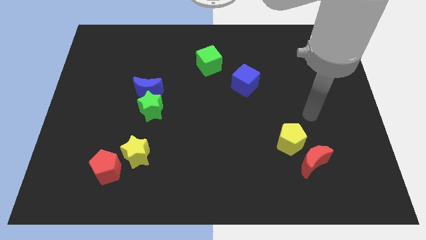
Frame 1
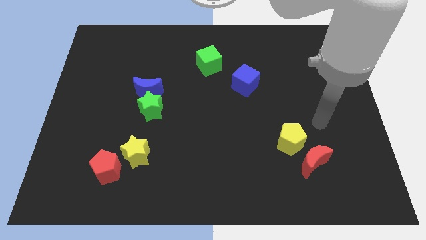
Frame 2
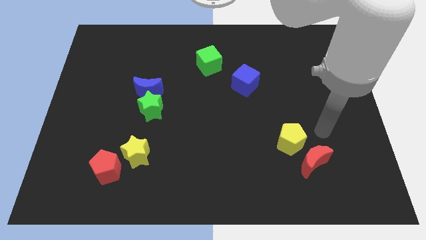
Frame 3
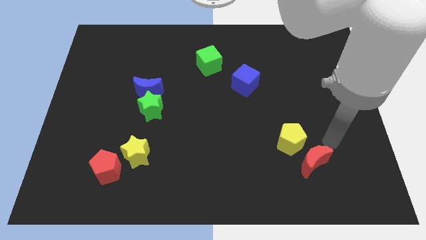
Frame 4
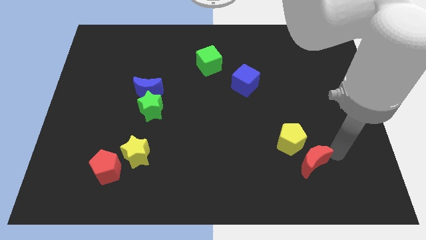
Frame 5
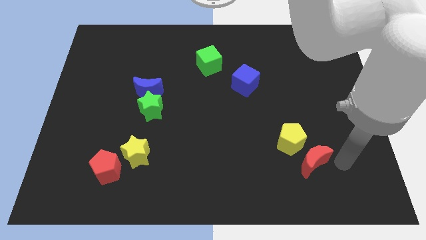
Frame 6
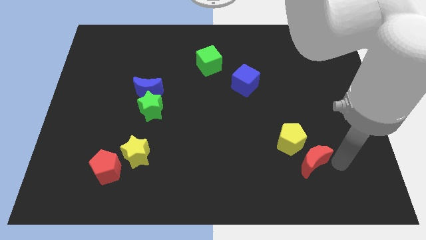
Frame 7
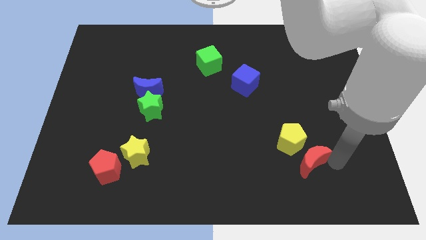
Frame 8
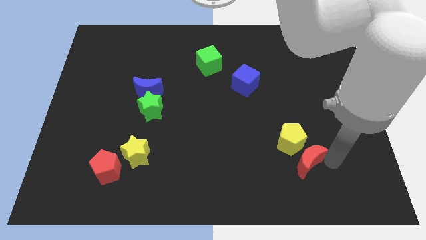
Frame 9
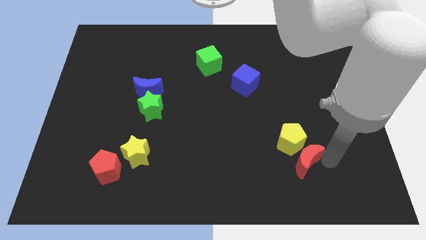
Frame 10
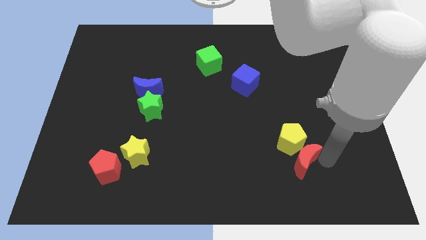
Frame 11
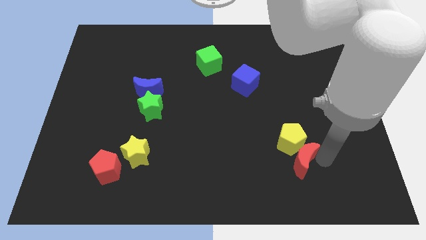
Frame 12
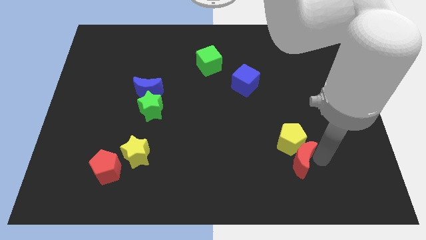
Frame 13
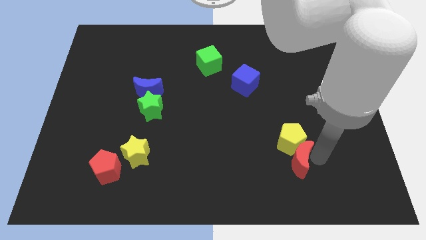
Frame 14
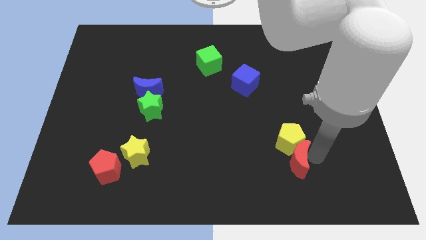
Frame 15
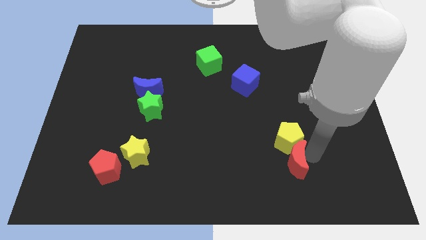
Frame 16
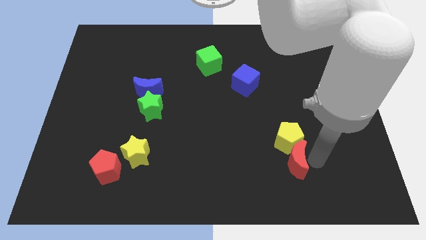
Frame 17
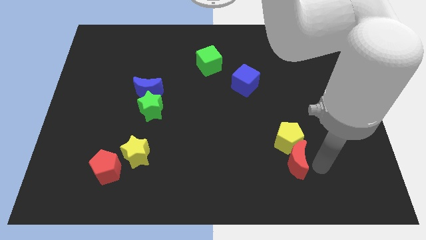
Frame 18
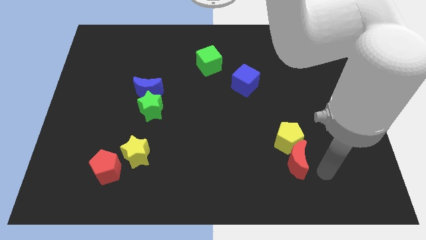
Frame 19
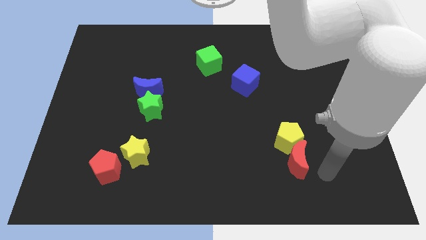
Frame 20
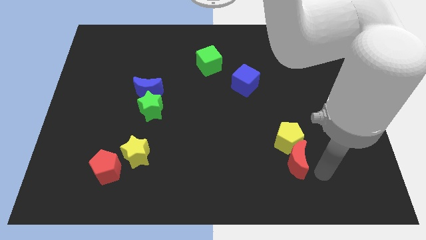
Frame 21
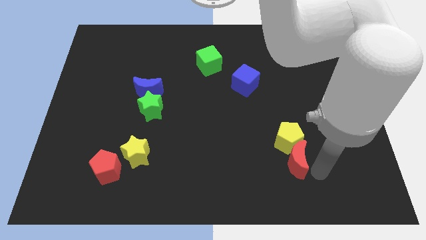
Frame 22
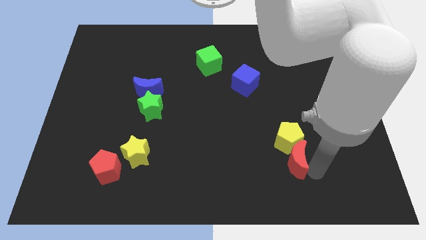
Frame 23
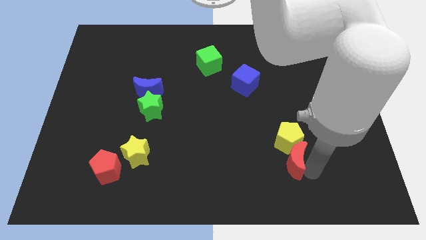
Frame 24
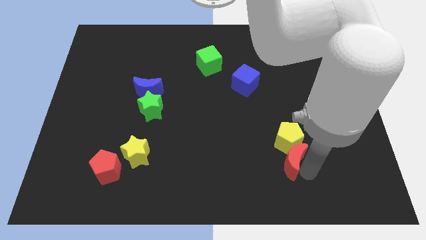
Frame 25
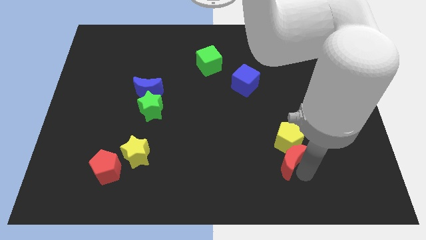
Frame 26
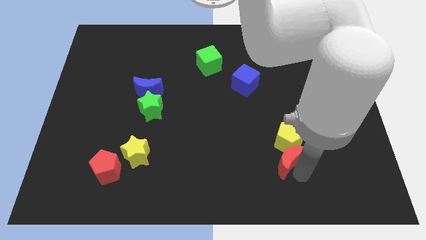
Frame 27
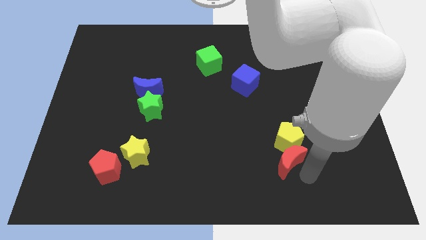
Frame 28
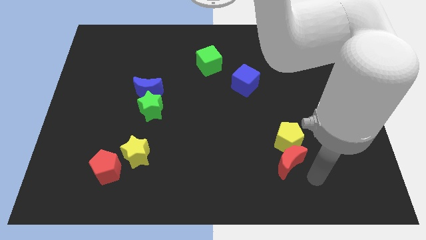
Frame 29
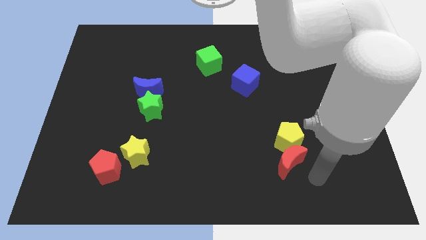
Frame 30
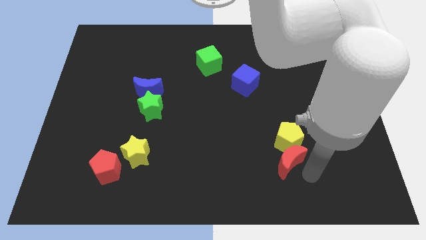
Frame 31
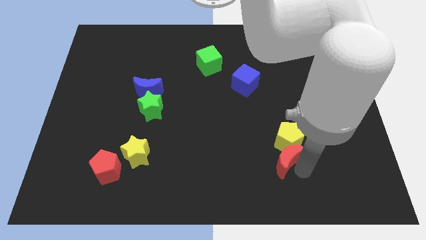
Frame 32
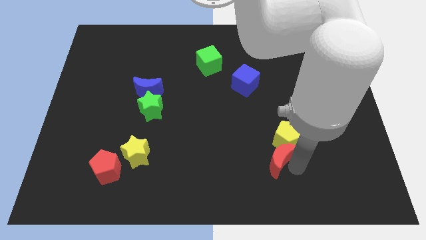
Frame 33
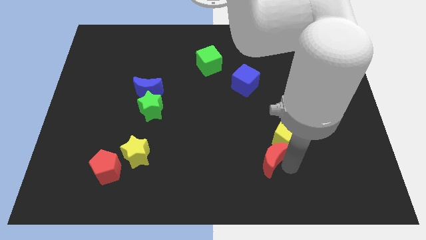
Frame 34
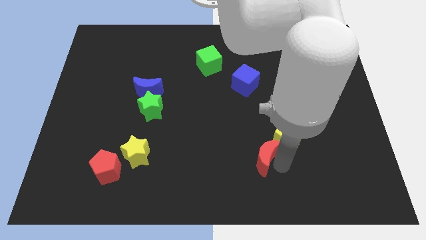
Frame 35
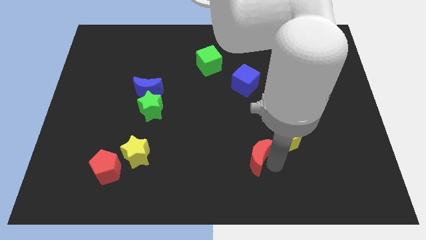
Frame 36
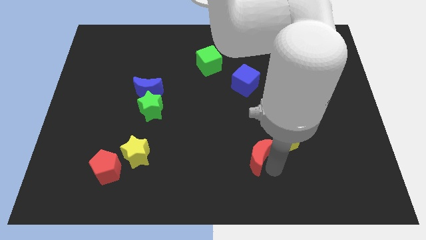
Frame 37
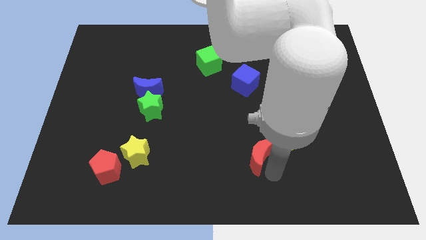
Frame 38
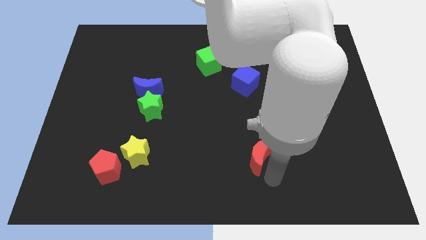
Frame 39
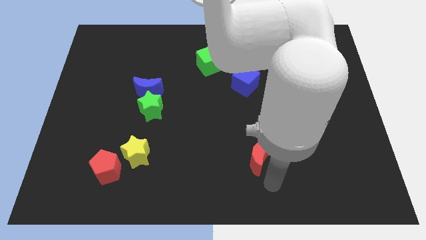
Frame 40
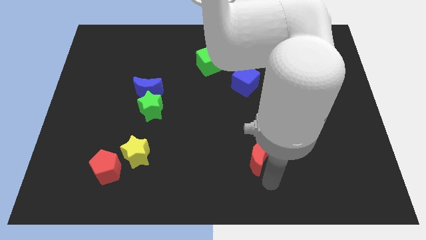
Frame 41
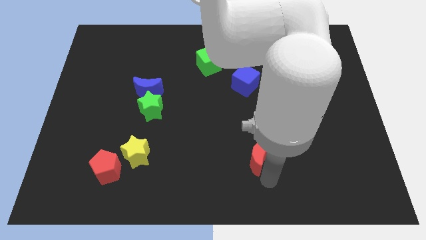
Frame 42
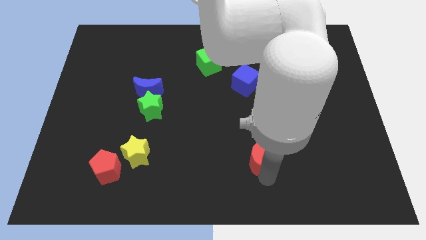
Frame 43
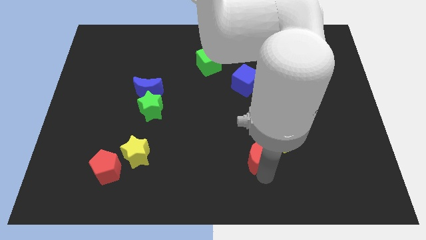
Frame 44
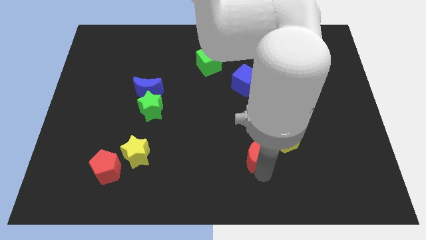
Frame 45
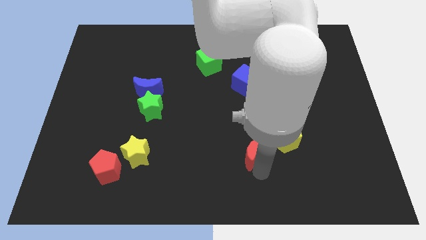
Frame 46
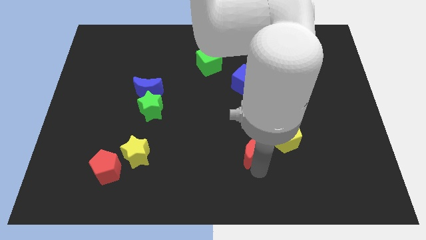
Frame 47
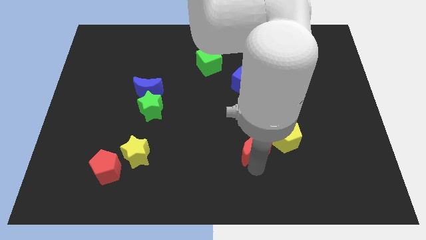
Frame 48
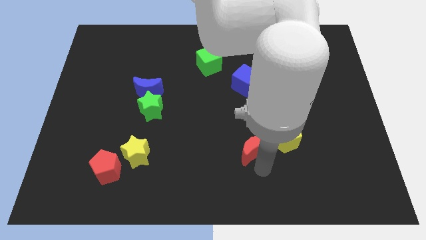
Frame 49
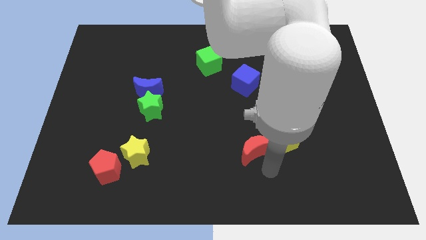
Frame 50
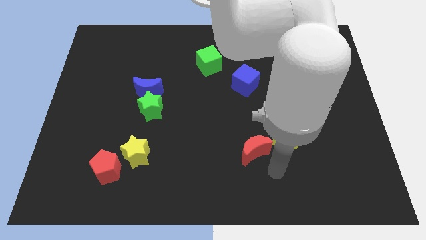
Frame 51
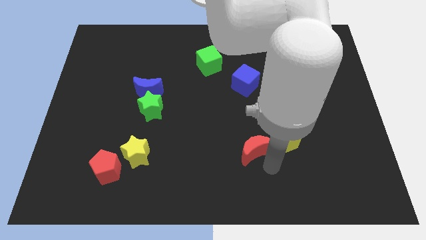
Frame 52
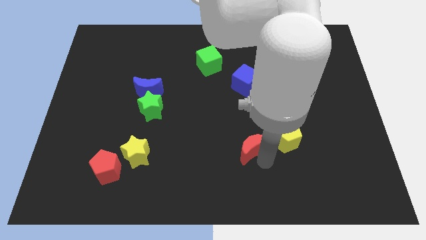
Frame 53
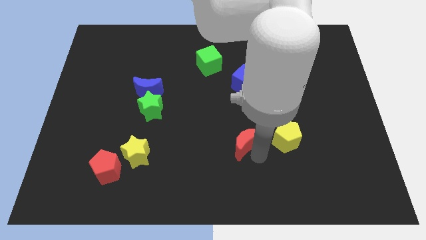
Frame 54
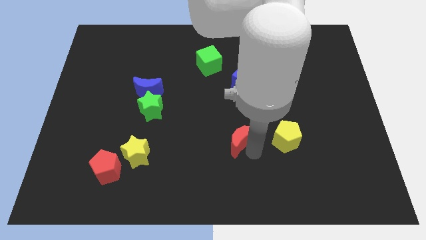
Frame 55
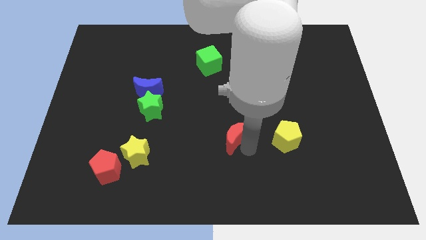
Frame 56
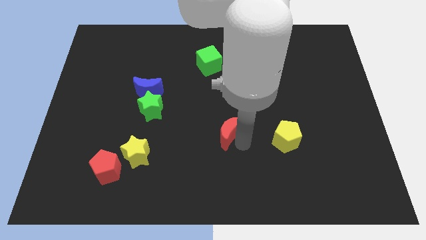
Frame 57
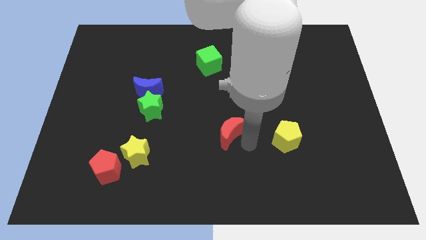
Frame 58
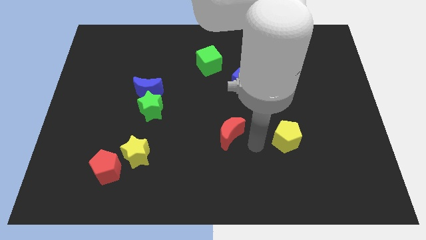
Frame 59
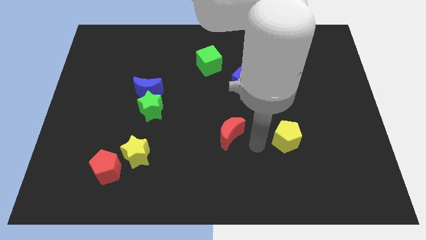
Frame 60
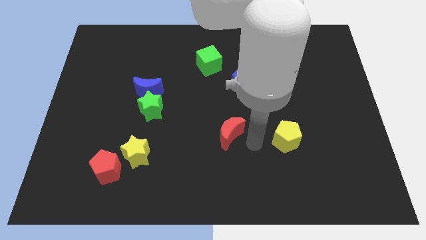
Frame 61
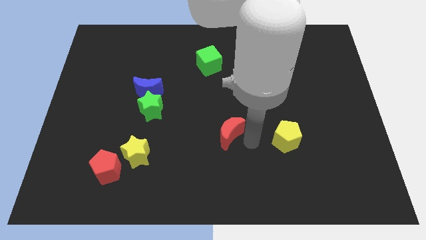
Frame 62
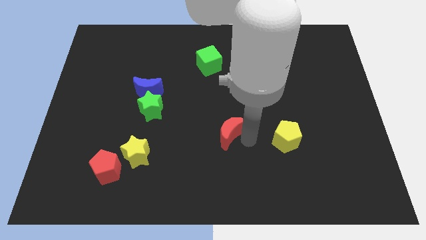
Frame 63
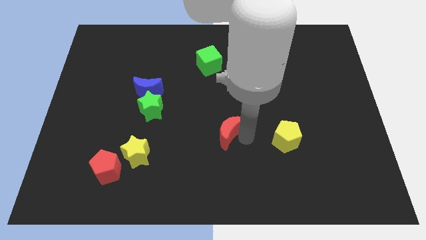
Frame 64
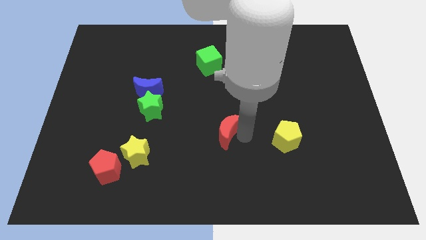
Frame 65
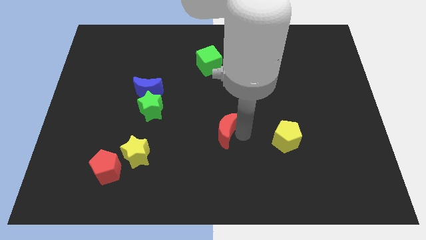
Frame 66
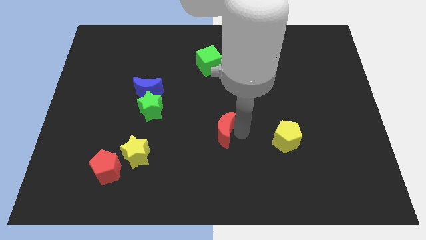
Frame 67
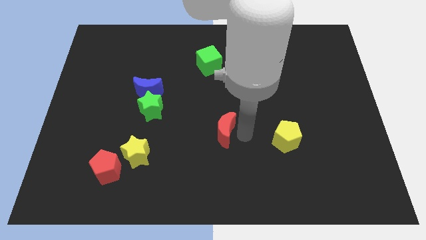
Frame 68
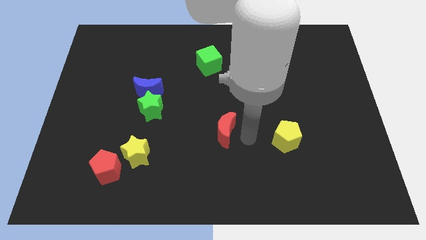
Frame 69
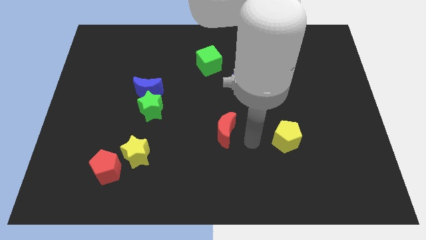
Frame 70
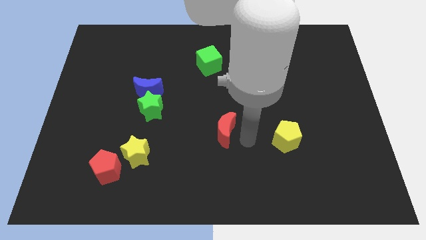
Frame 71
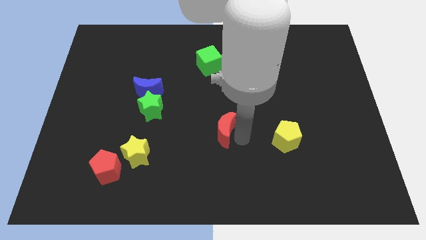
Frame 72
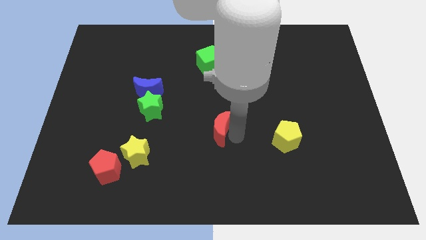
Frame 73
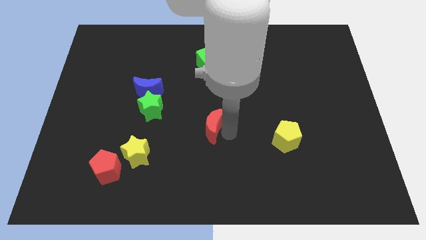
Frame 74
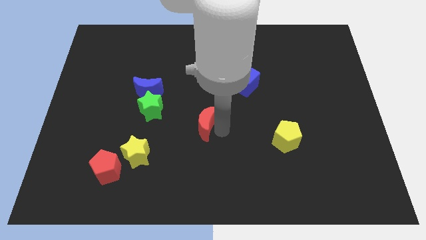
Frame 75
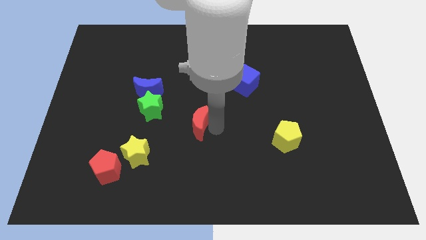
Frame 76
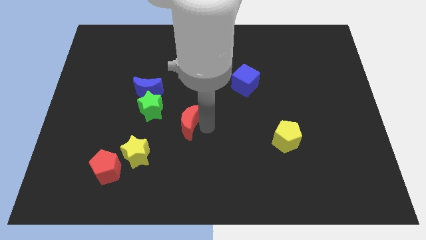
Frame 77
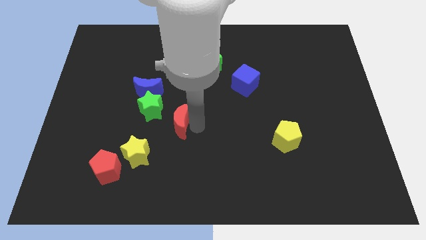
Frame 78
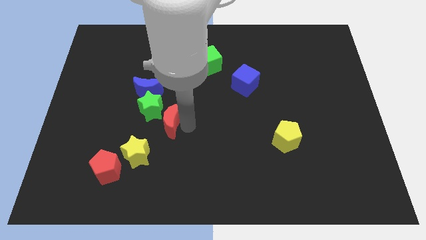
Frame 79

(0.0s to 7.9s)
move the red moon close to the green star
